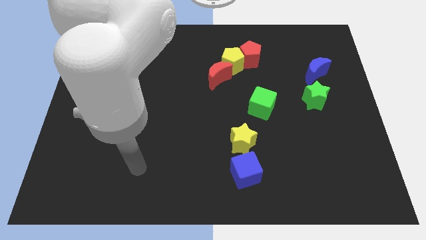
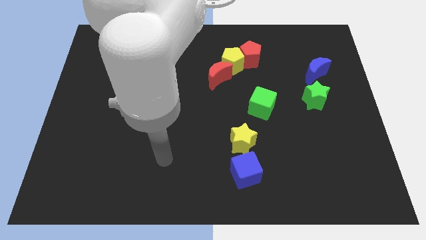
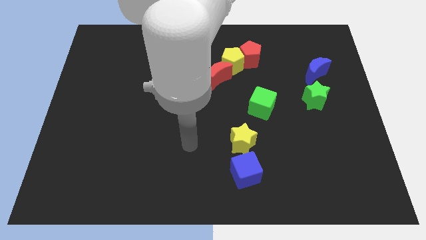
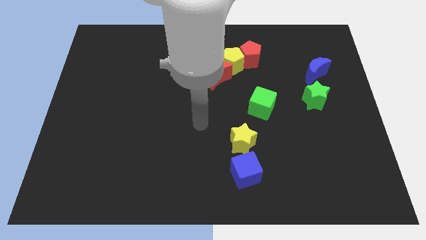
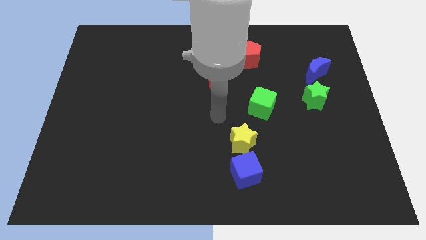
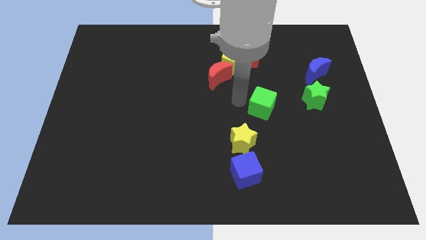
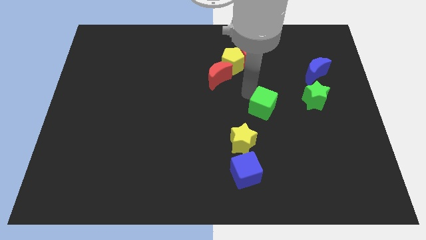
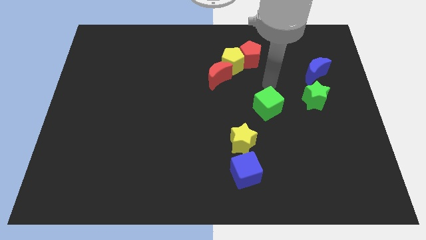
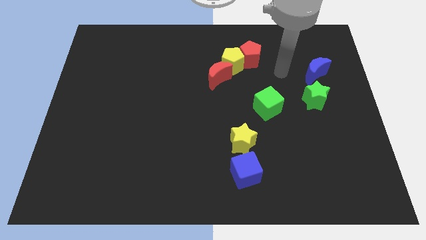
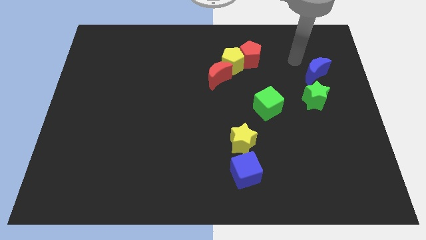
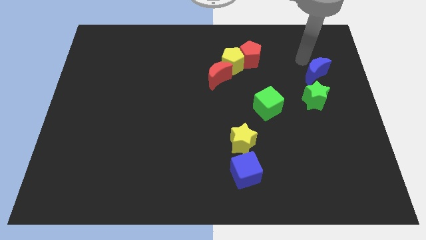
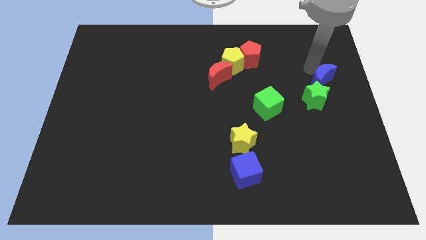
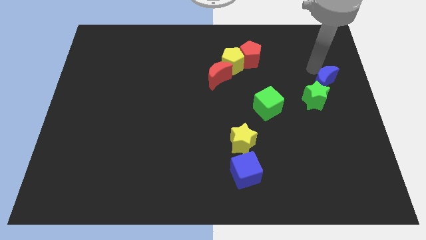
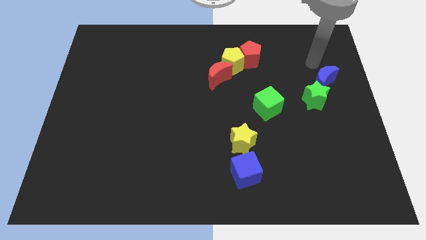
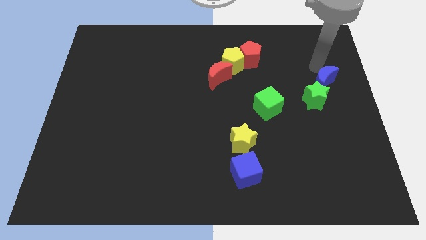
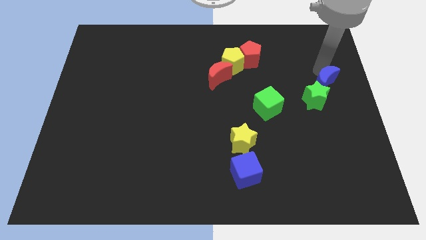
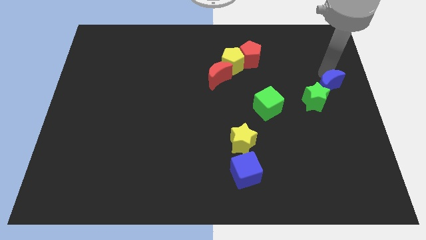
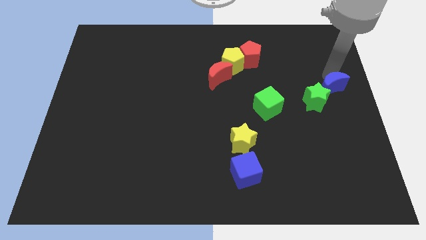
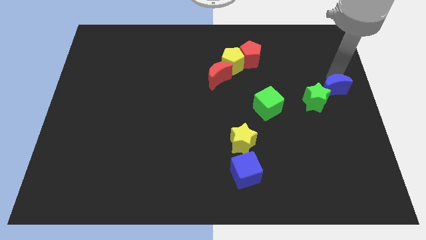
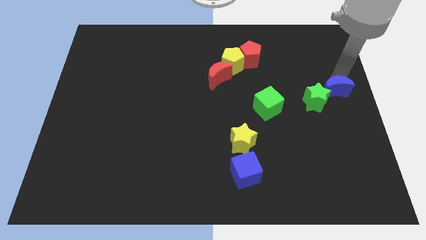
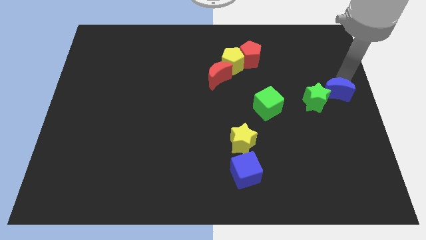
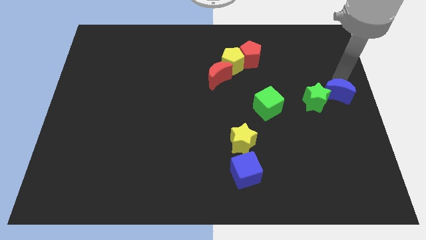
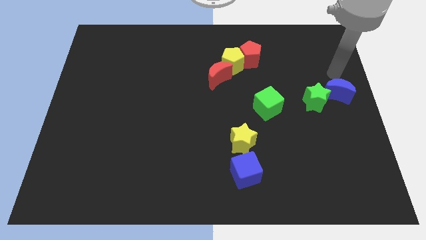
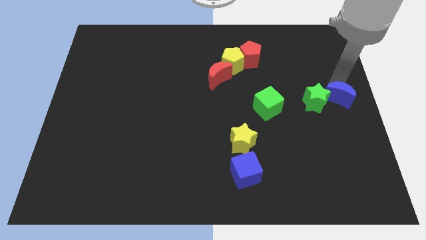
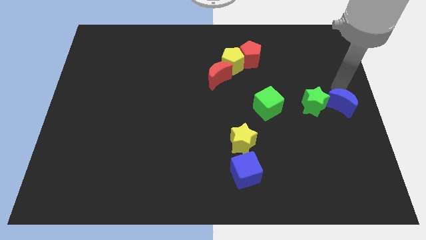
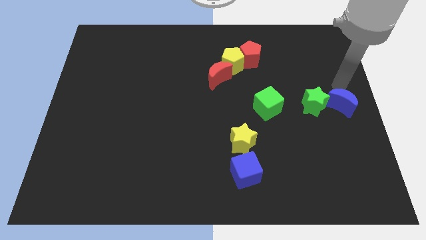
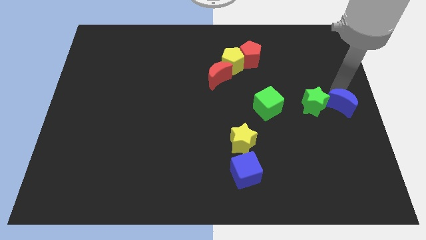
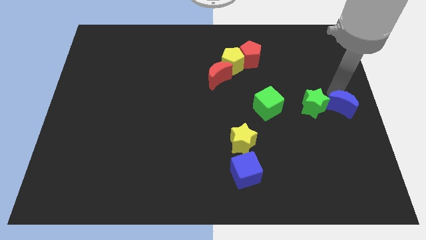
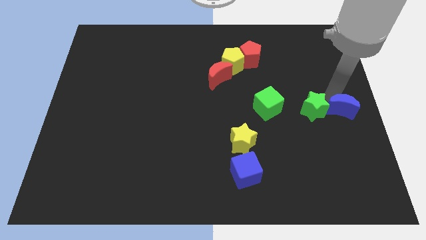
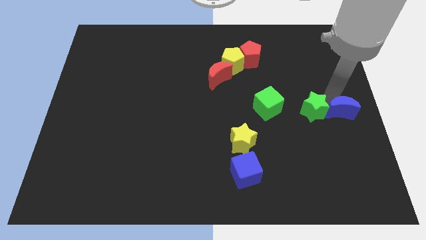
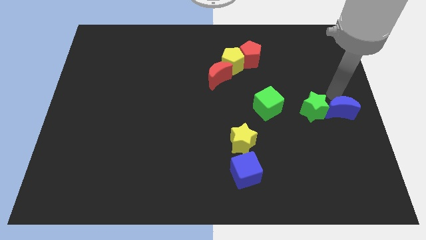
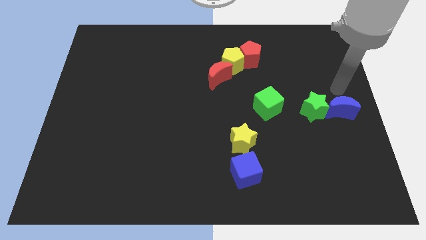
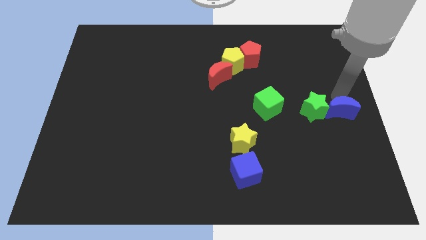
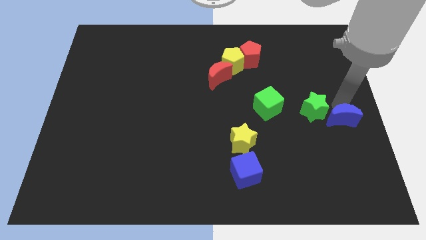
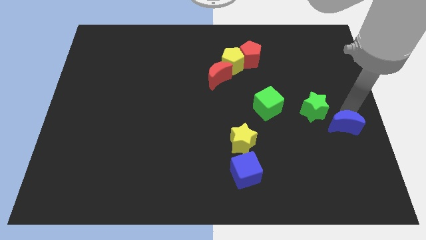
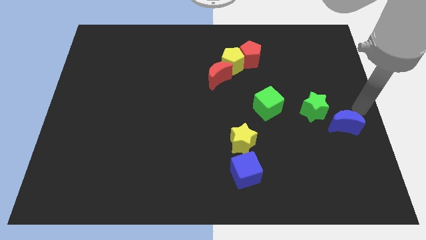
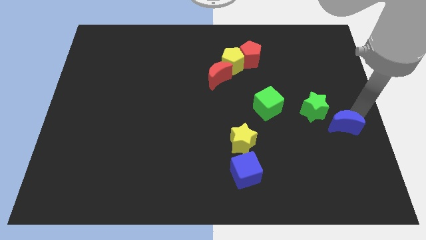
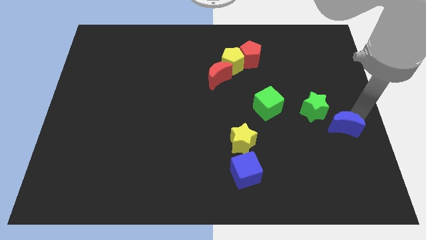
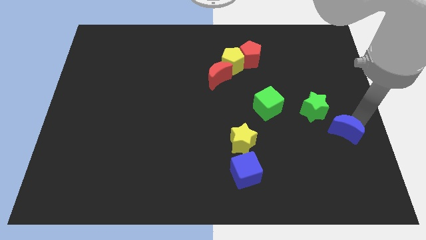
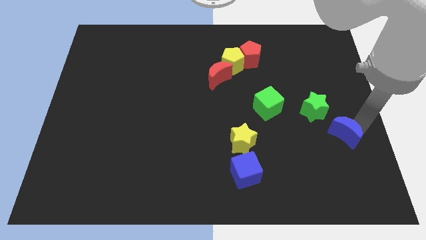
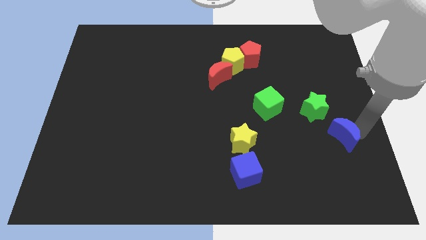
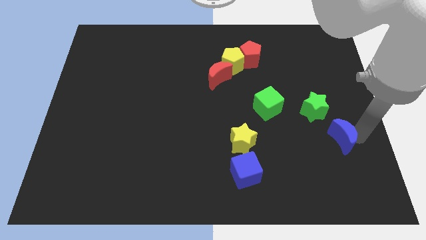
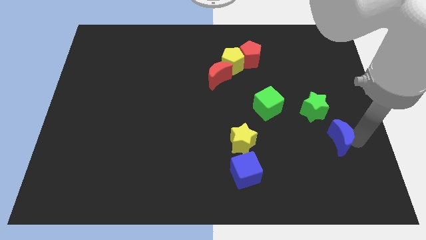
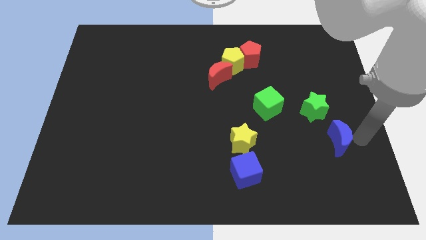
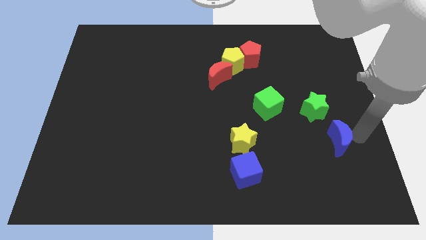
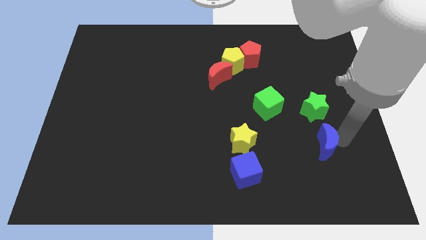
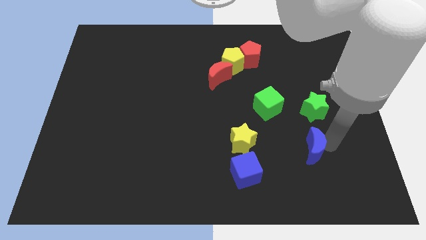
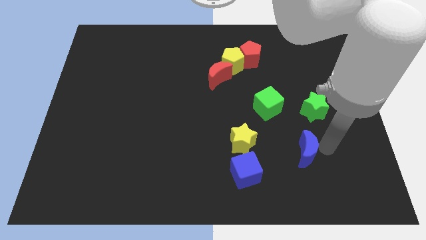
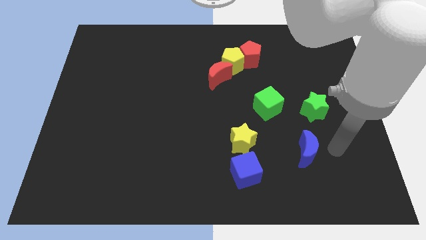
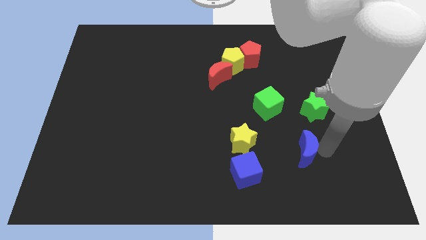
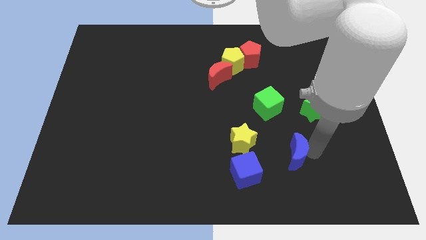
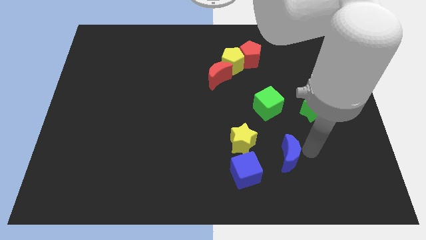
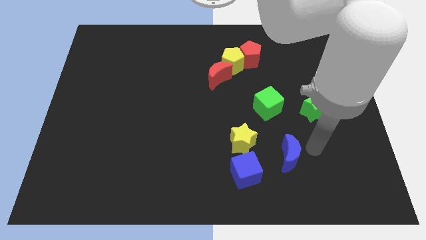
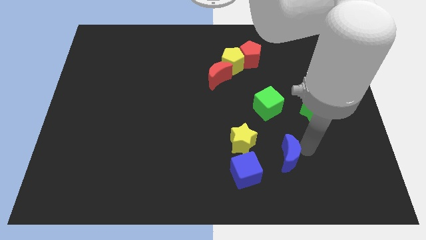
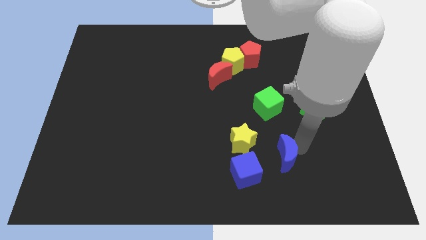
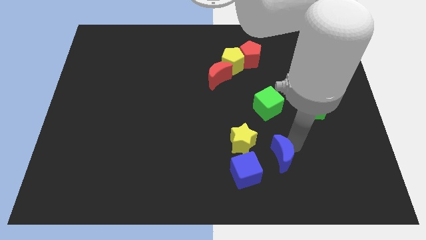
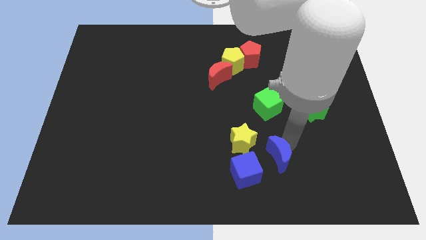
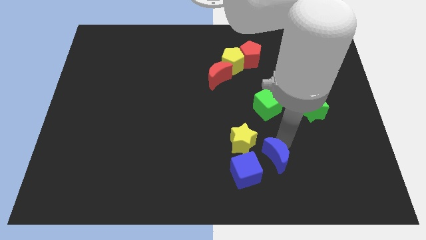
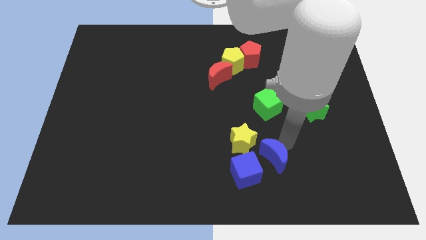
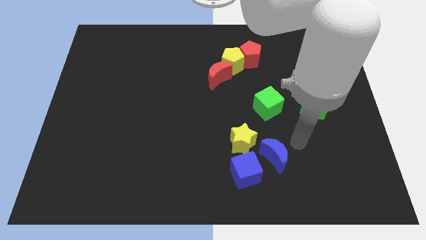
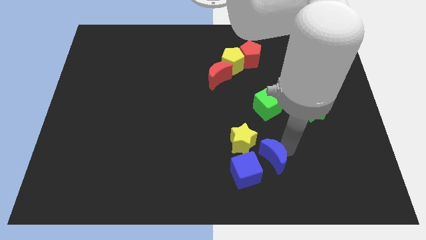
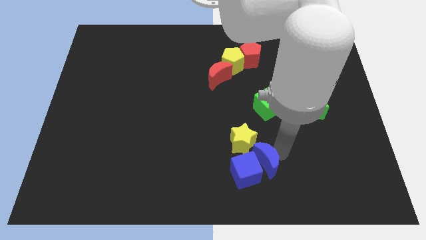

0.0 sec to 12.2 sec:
move the blue moon towards the blue cube
